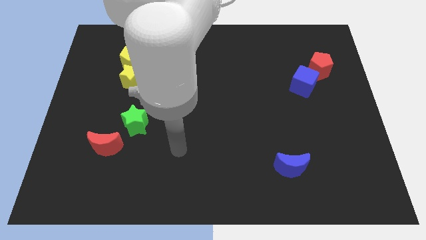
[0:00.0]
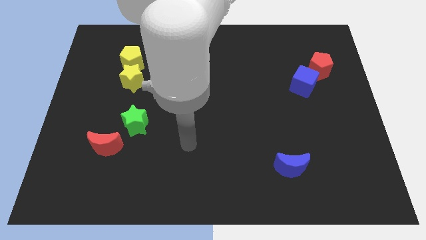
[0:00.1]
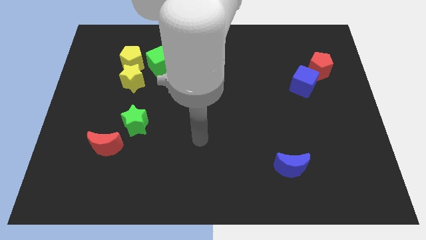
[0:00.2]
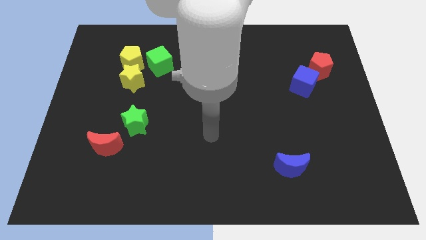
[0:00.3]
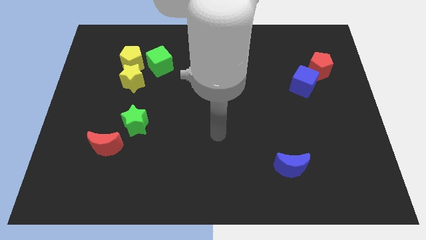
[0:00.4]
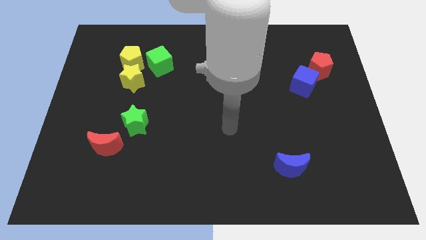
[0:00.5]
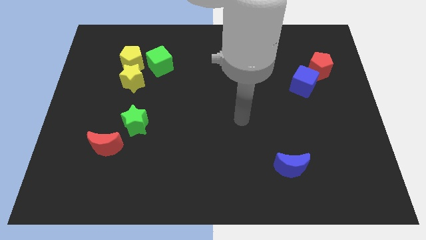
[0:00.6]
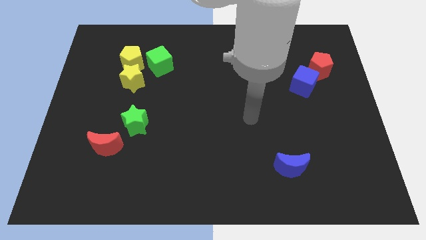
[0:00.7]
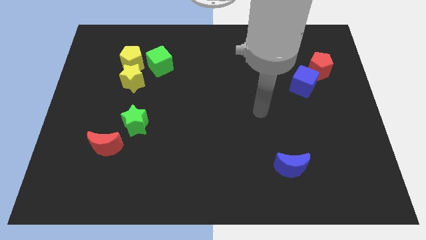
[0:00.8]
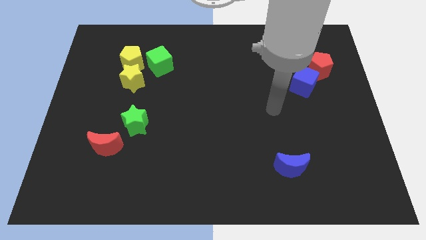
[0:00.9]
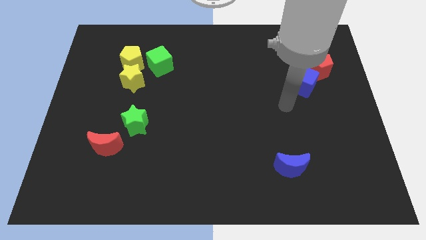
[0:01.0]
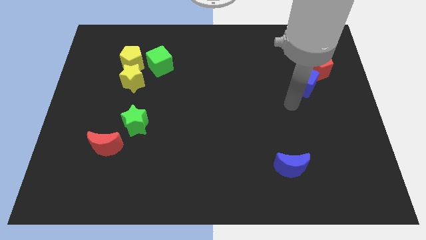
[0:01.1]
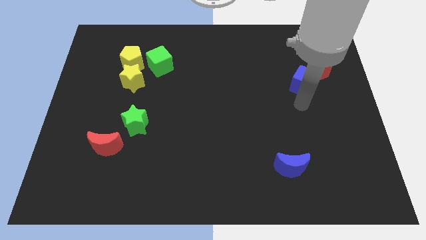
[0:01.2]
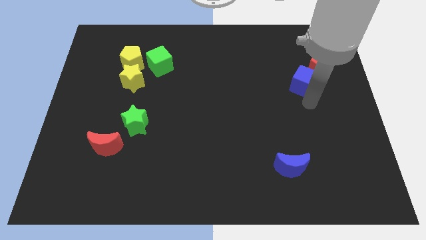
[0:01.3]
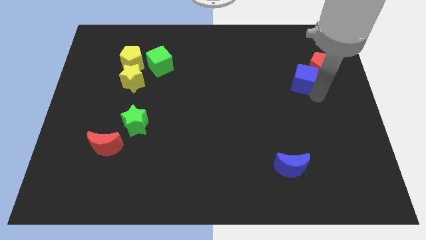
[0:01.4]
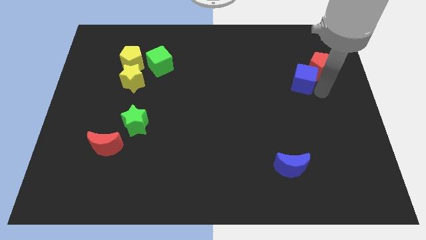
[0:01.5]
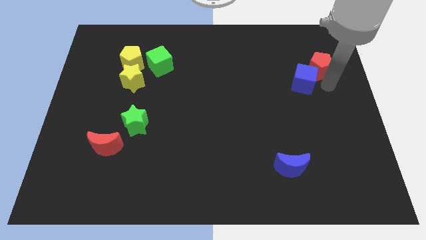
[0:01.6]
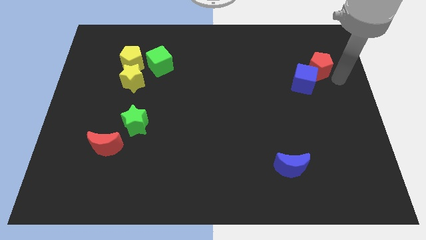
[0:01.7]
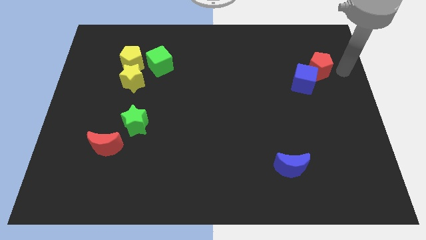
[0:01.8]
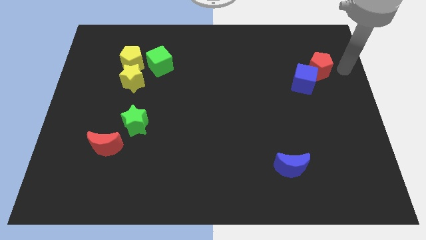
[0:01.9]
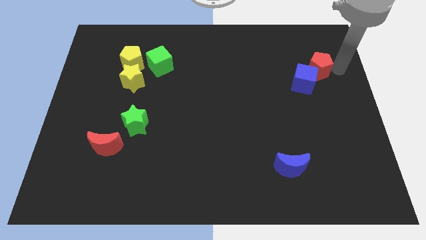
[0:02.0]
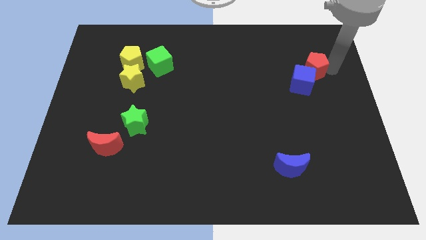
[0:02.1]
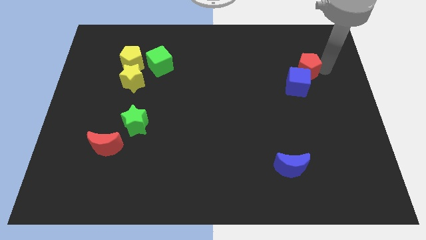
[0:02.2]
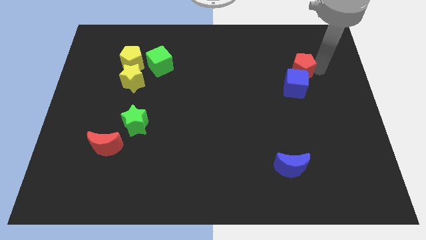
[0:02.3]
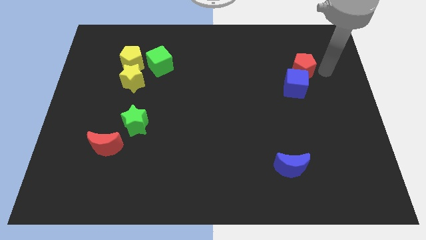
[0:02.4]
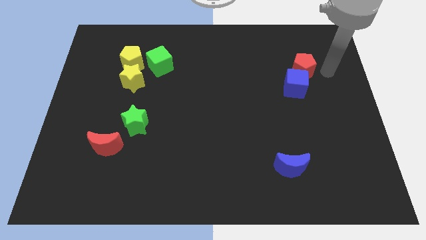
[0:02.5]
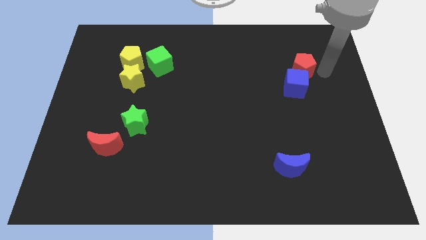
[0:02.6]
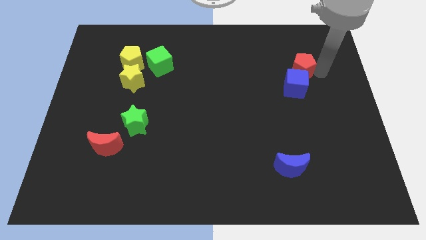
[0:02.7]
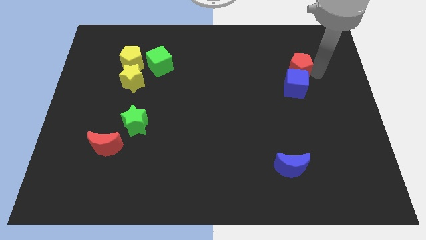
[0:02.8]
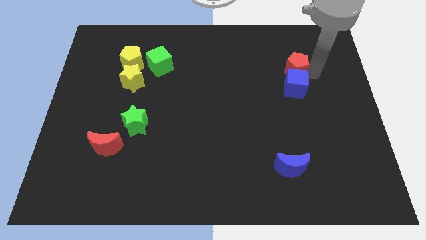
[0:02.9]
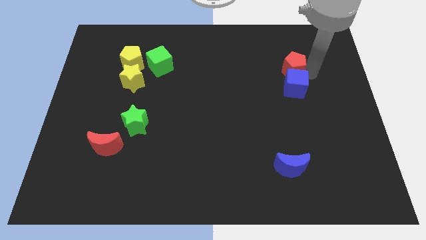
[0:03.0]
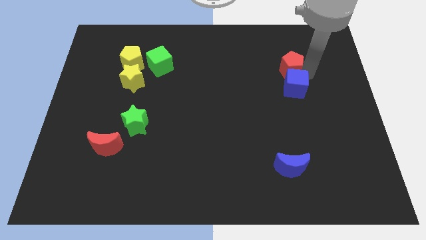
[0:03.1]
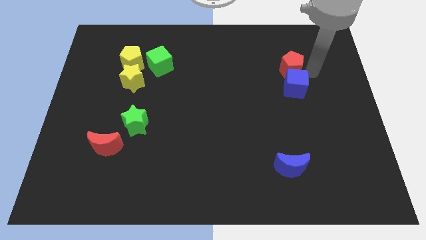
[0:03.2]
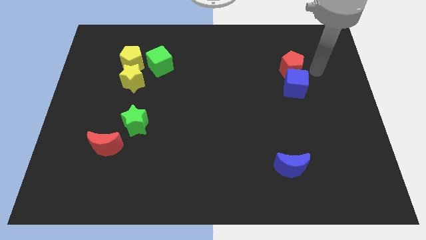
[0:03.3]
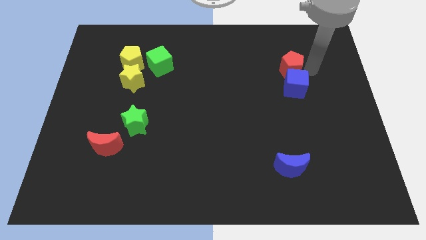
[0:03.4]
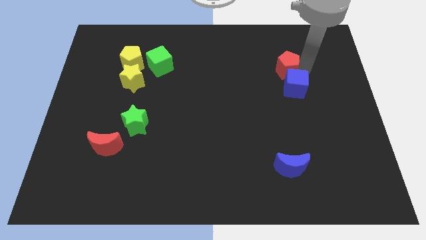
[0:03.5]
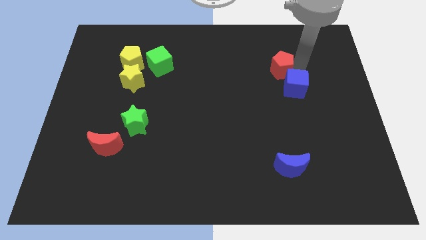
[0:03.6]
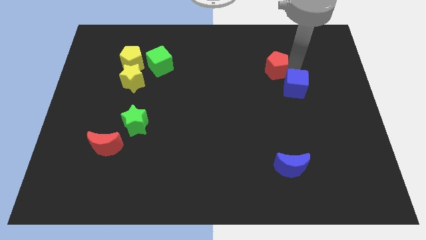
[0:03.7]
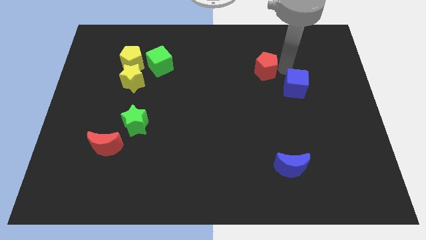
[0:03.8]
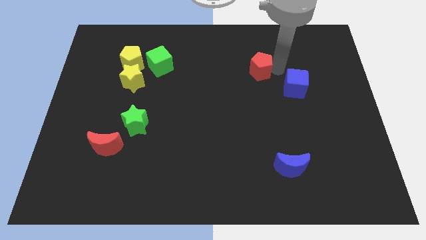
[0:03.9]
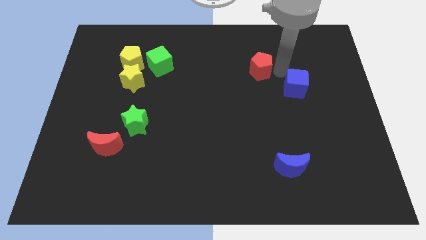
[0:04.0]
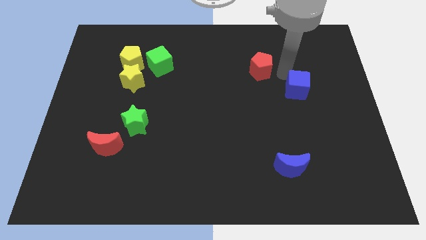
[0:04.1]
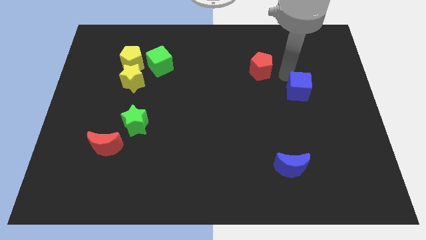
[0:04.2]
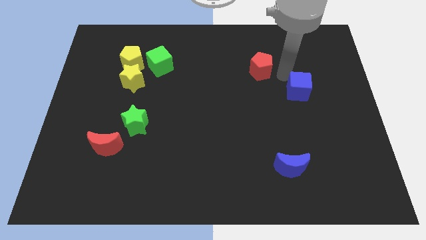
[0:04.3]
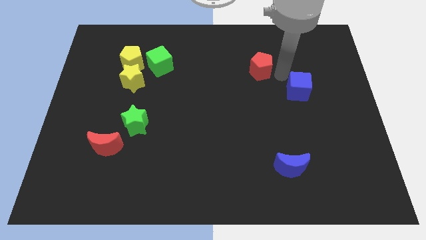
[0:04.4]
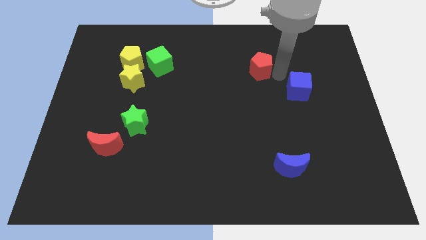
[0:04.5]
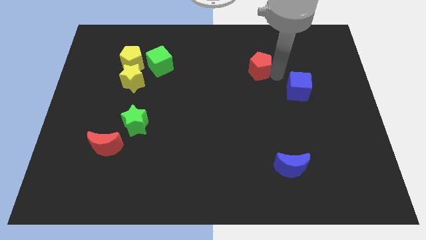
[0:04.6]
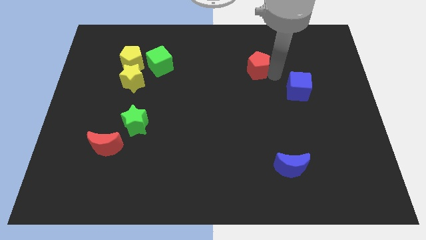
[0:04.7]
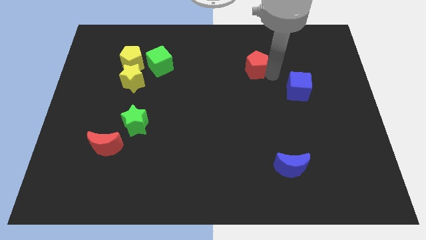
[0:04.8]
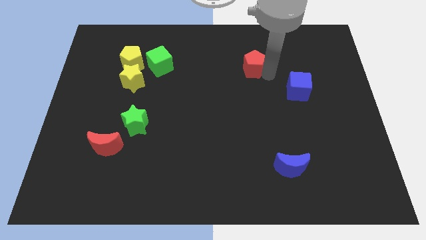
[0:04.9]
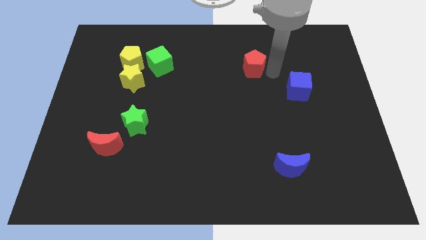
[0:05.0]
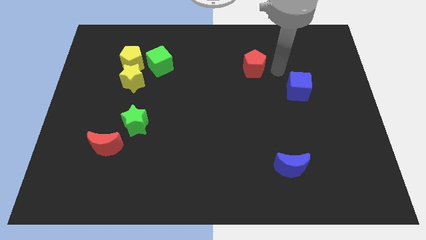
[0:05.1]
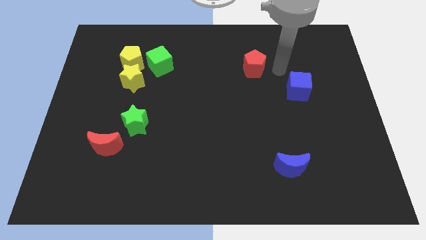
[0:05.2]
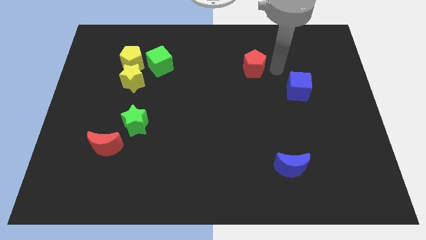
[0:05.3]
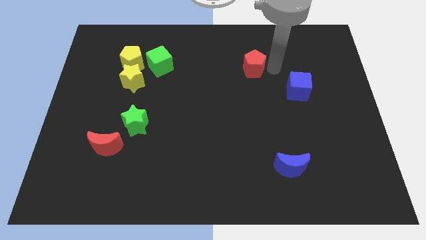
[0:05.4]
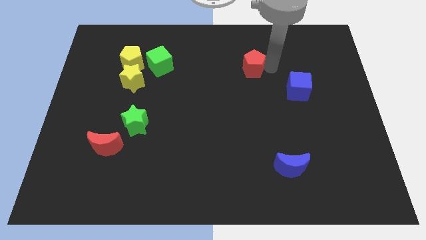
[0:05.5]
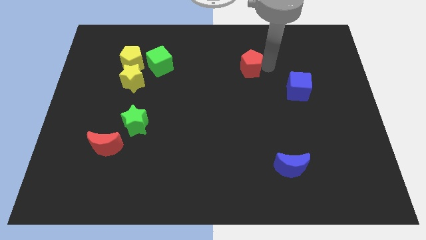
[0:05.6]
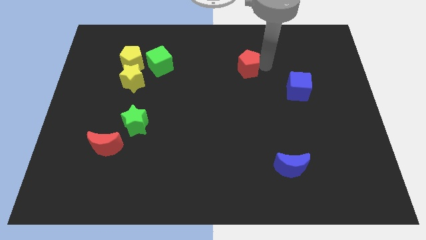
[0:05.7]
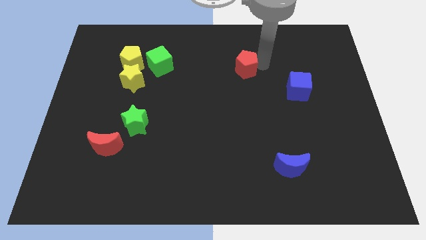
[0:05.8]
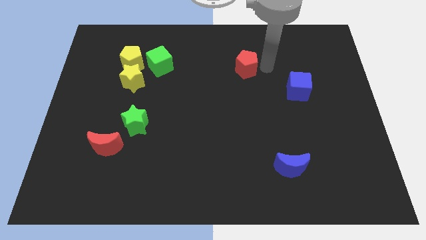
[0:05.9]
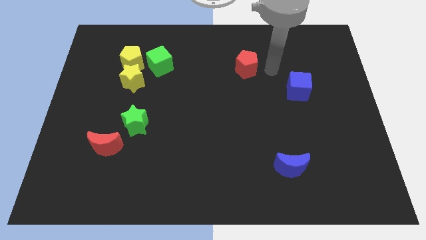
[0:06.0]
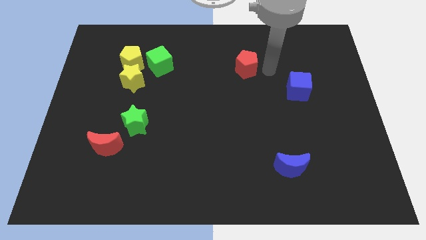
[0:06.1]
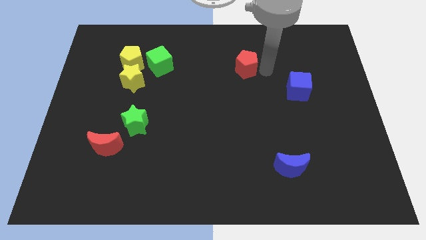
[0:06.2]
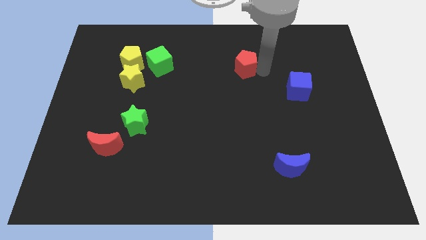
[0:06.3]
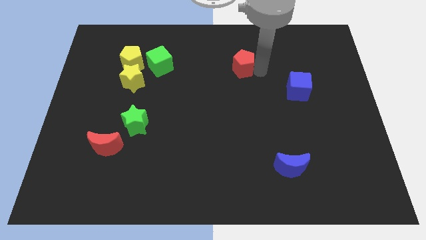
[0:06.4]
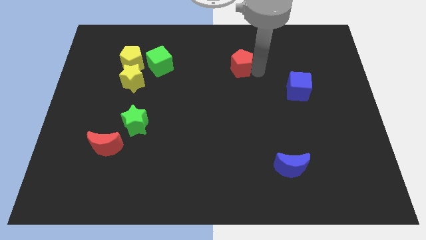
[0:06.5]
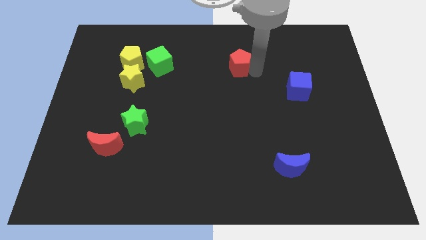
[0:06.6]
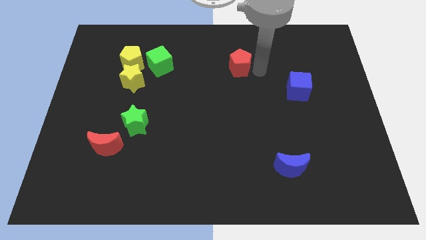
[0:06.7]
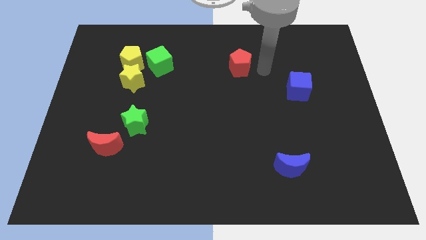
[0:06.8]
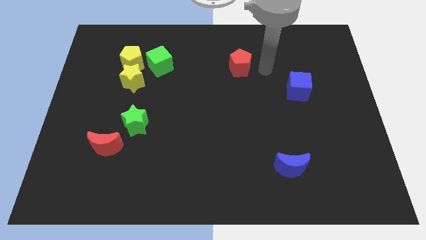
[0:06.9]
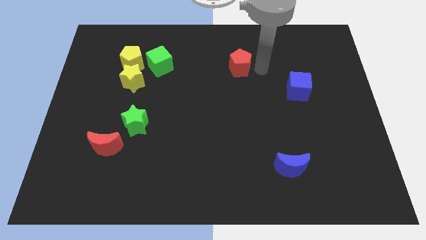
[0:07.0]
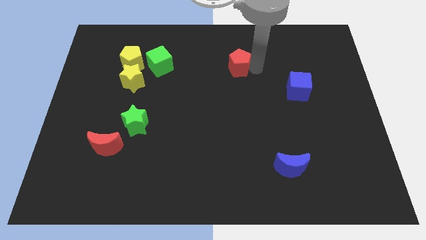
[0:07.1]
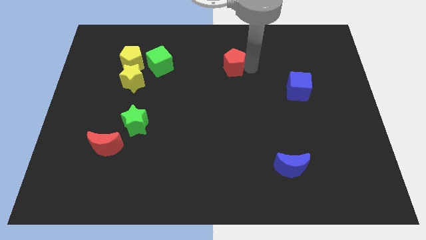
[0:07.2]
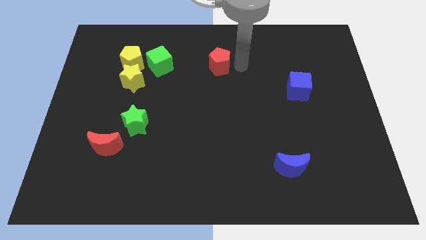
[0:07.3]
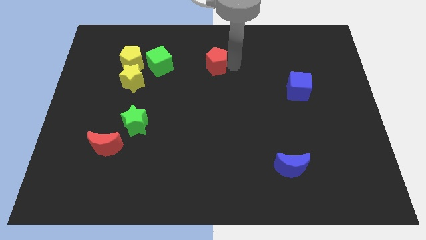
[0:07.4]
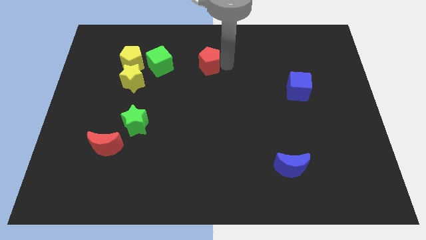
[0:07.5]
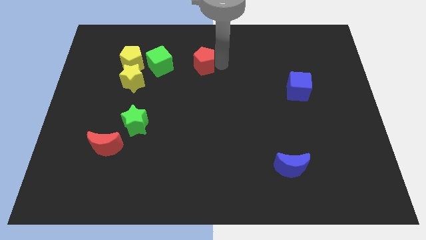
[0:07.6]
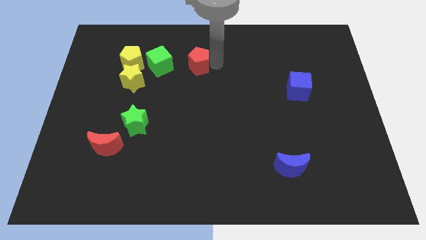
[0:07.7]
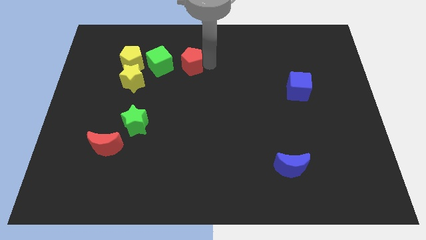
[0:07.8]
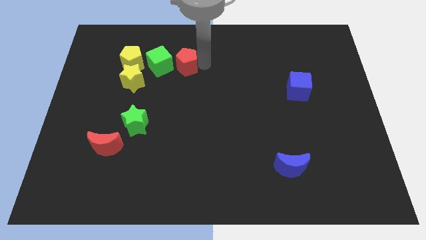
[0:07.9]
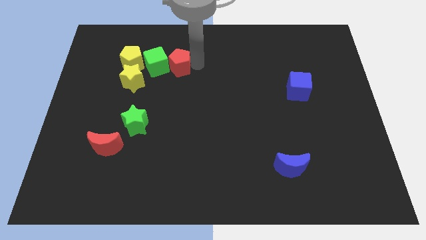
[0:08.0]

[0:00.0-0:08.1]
move the red pentagon next to the green cube
